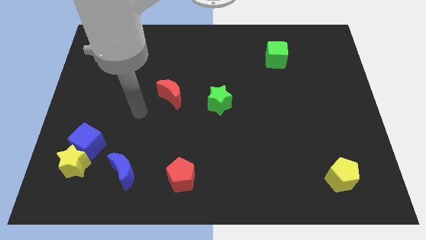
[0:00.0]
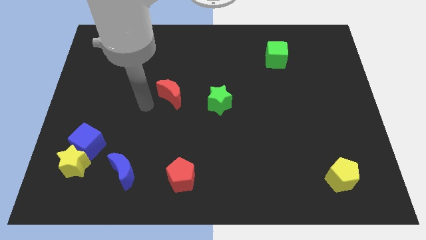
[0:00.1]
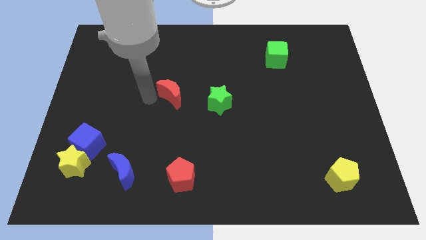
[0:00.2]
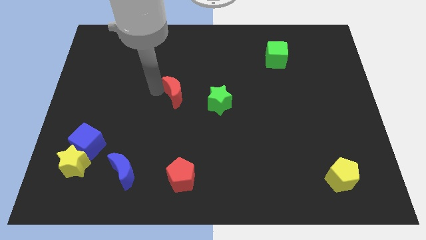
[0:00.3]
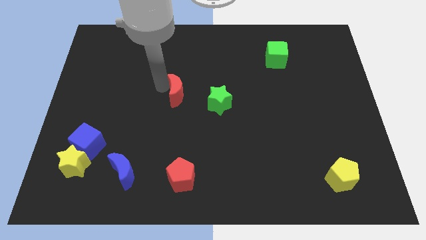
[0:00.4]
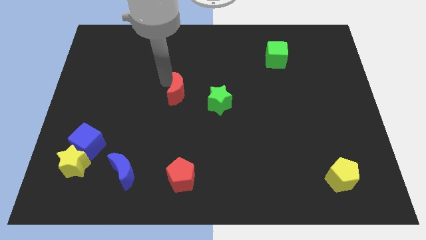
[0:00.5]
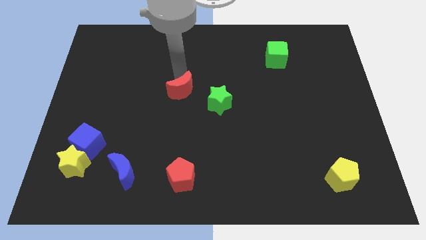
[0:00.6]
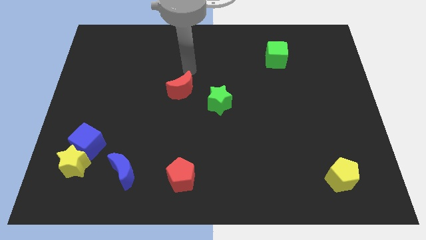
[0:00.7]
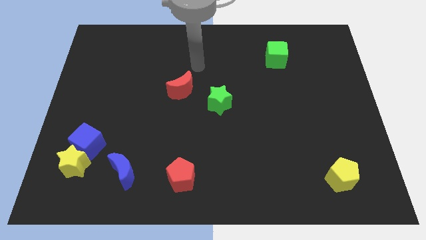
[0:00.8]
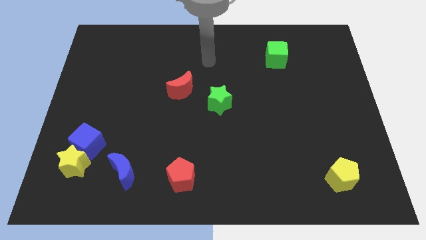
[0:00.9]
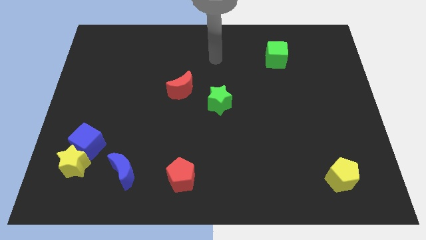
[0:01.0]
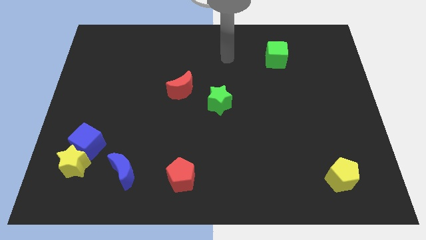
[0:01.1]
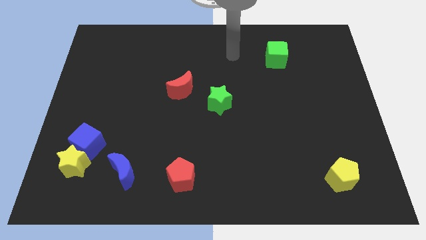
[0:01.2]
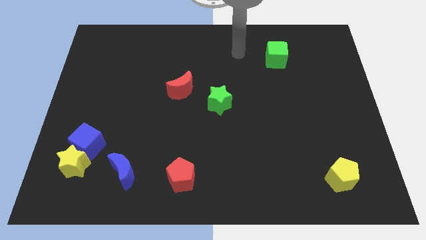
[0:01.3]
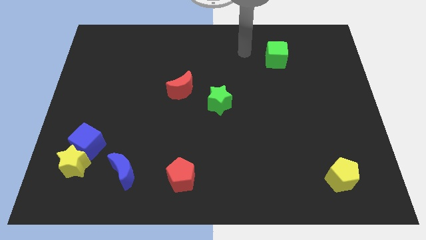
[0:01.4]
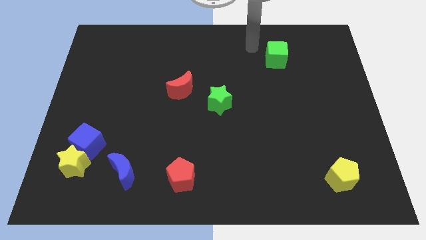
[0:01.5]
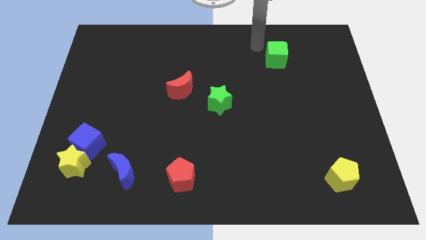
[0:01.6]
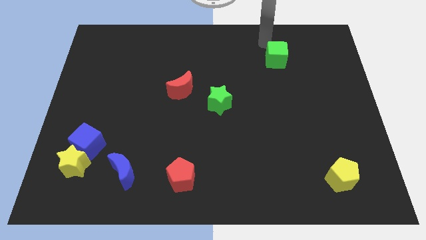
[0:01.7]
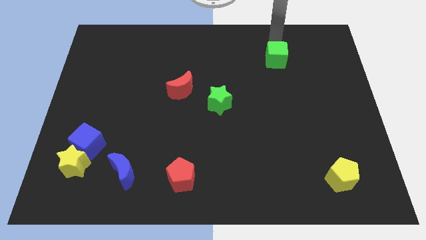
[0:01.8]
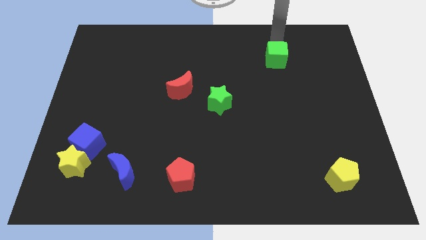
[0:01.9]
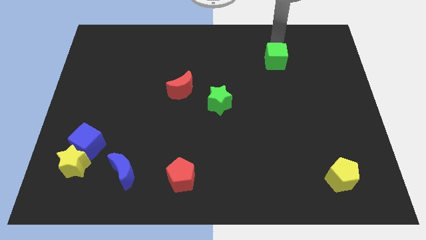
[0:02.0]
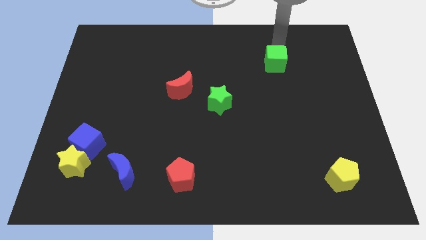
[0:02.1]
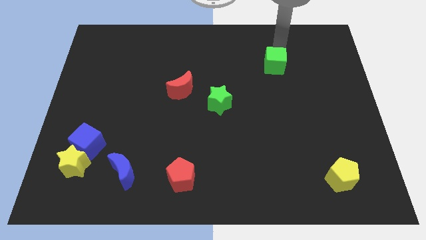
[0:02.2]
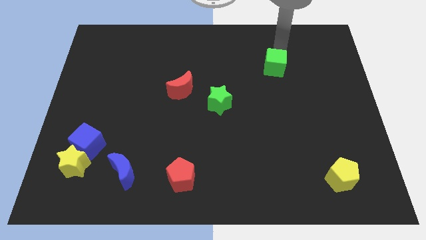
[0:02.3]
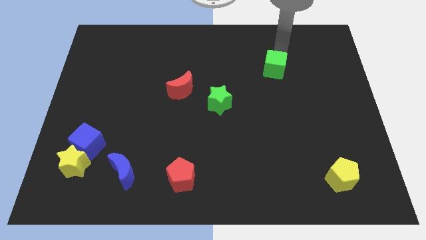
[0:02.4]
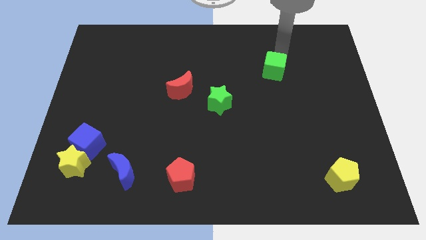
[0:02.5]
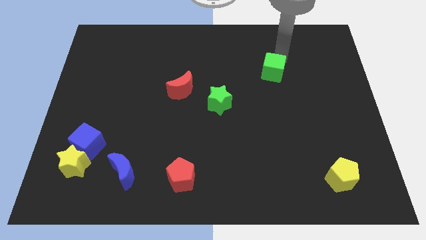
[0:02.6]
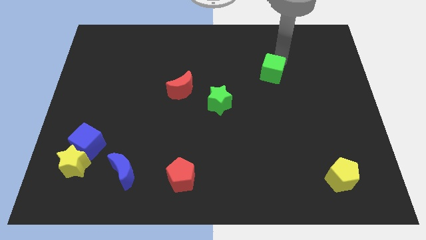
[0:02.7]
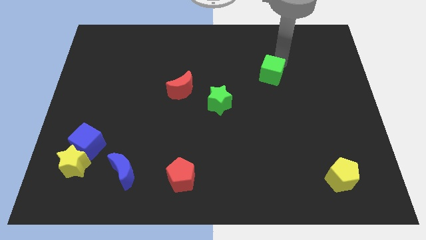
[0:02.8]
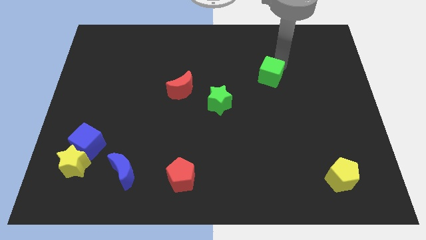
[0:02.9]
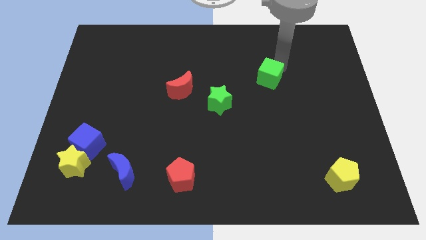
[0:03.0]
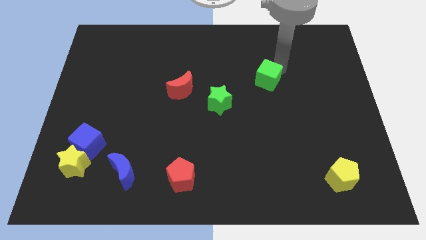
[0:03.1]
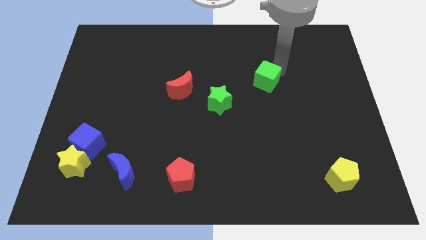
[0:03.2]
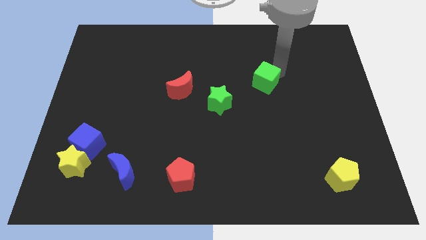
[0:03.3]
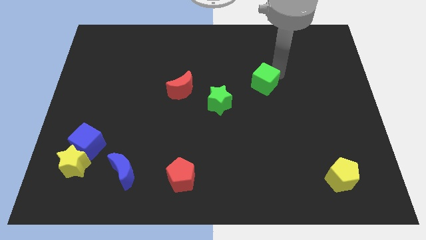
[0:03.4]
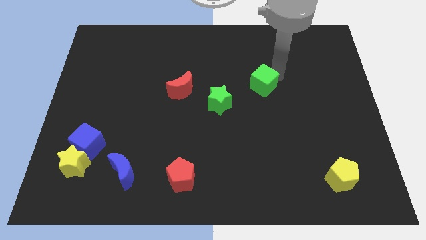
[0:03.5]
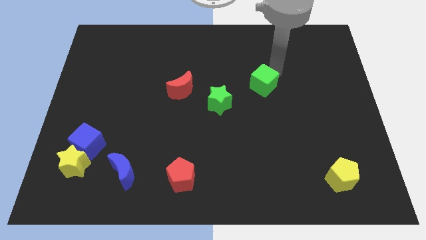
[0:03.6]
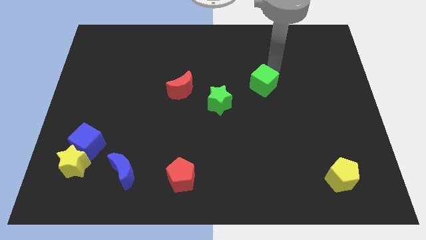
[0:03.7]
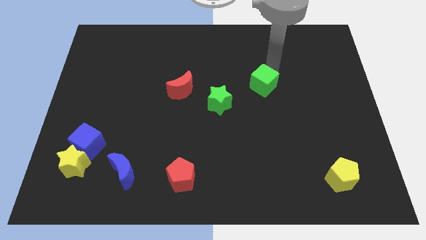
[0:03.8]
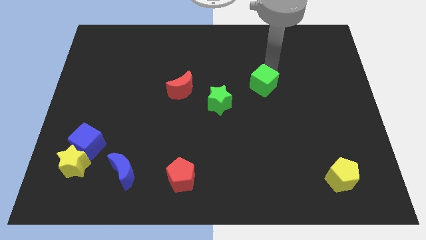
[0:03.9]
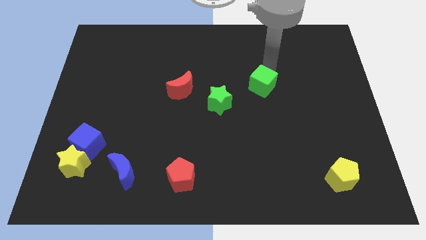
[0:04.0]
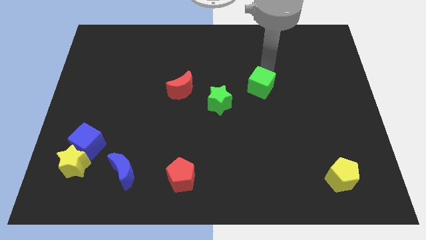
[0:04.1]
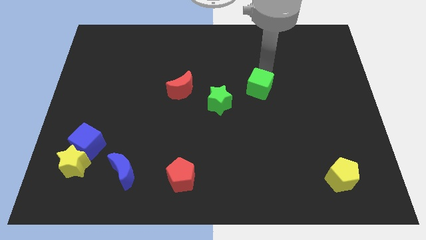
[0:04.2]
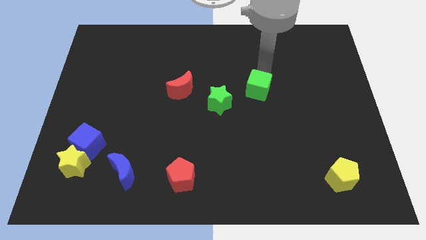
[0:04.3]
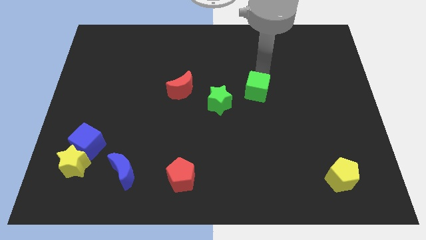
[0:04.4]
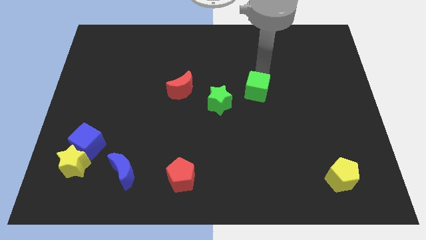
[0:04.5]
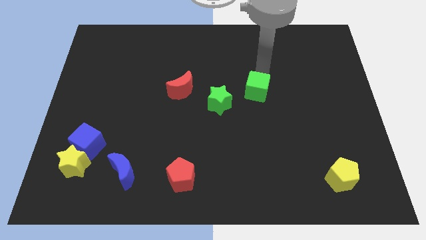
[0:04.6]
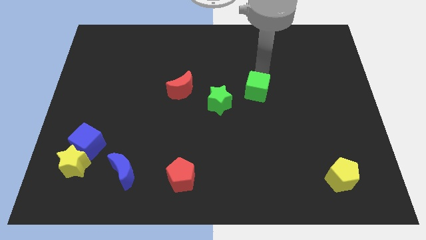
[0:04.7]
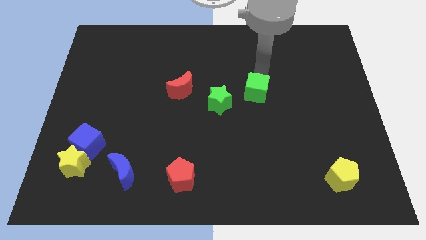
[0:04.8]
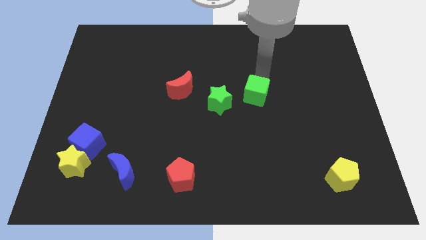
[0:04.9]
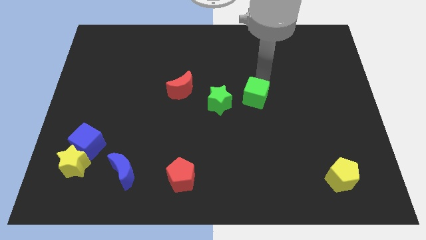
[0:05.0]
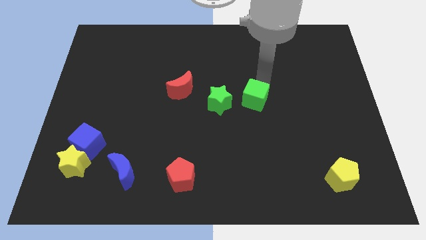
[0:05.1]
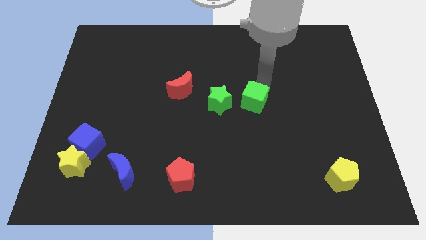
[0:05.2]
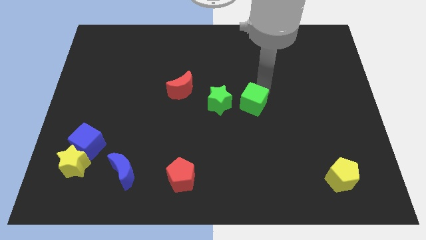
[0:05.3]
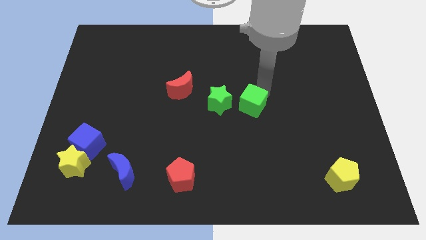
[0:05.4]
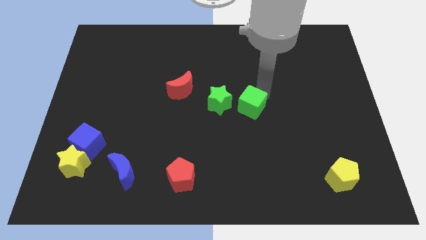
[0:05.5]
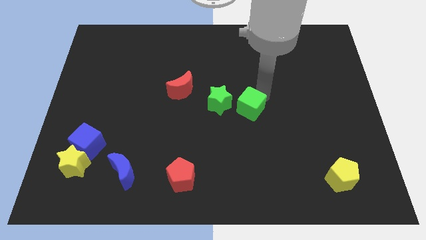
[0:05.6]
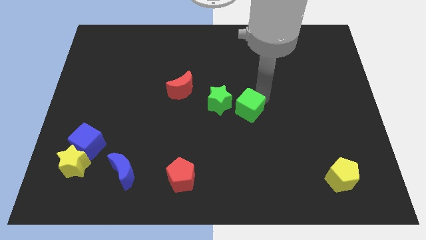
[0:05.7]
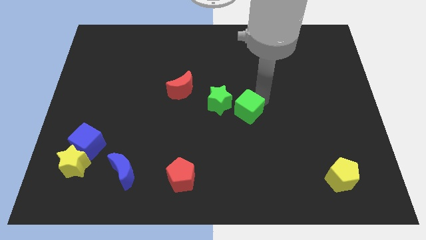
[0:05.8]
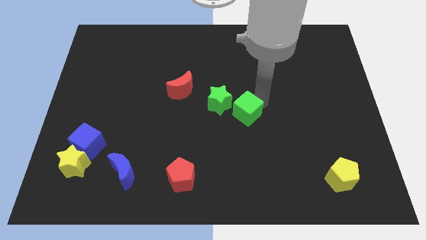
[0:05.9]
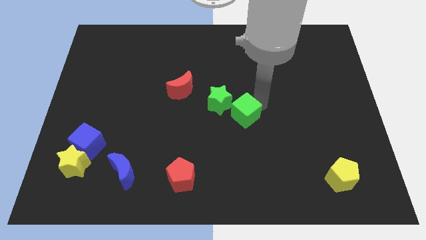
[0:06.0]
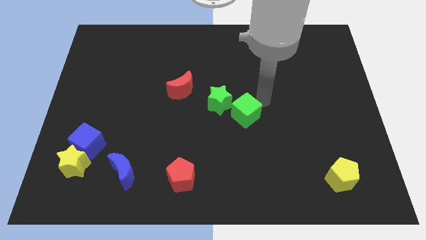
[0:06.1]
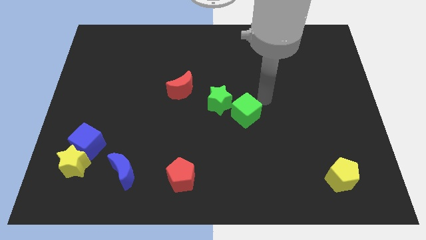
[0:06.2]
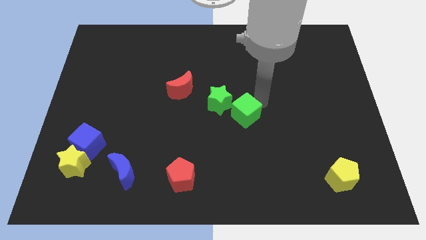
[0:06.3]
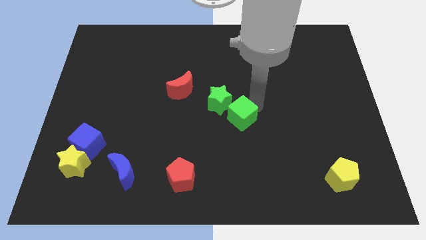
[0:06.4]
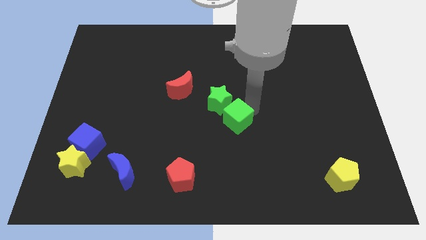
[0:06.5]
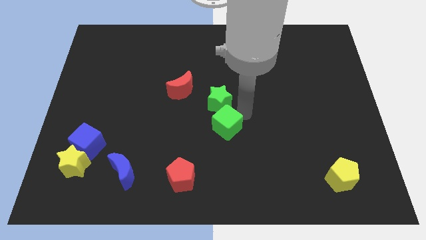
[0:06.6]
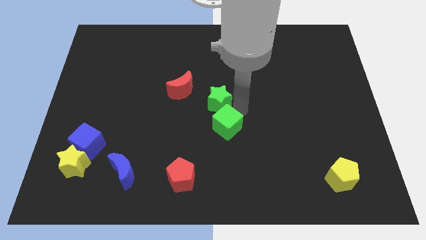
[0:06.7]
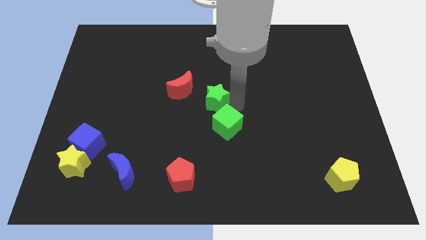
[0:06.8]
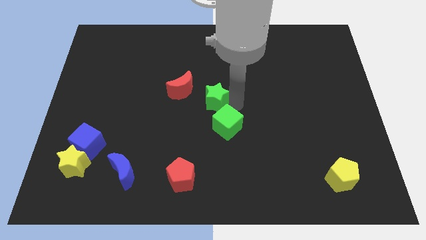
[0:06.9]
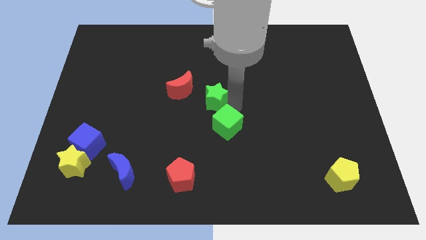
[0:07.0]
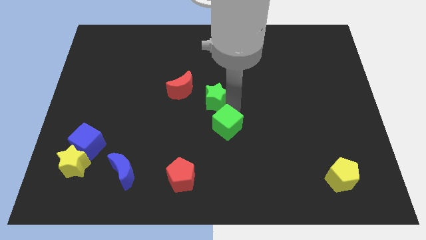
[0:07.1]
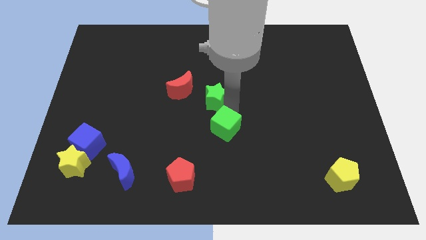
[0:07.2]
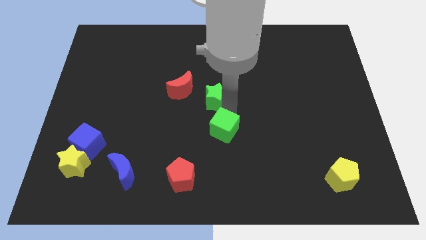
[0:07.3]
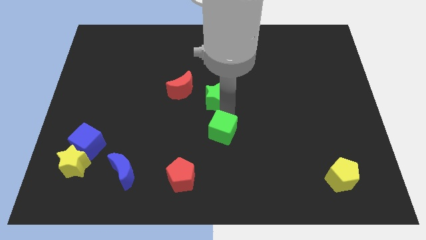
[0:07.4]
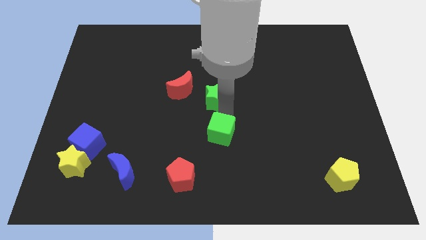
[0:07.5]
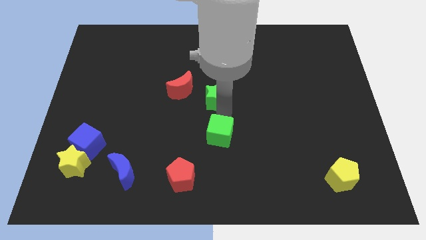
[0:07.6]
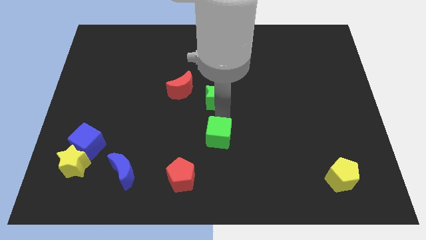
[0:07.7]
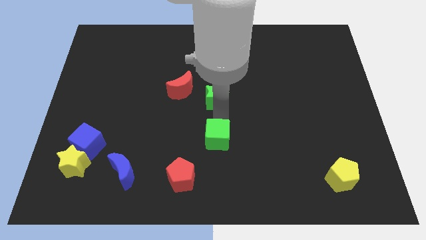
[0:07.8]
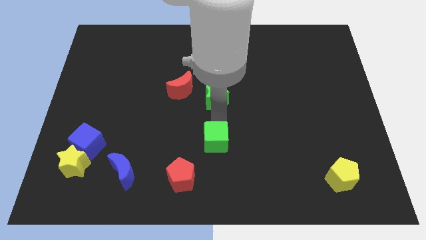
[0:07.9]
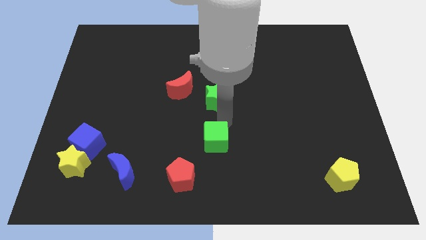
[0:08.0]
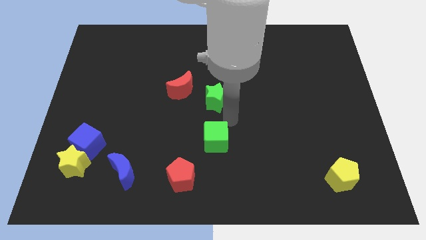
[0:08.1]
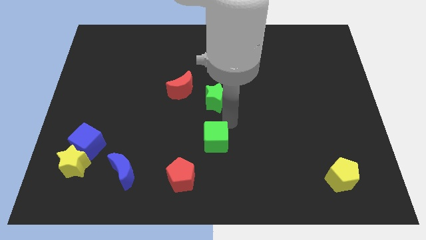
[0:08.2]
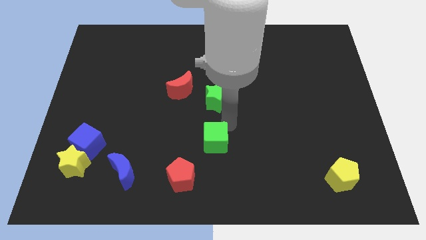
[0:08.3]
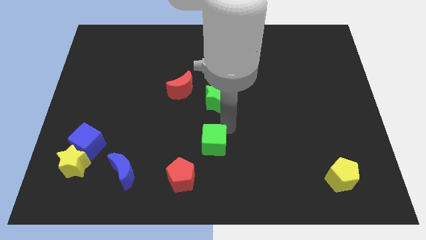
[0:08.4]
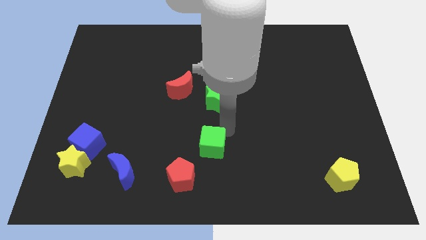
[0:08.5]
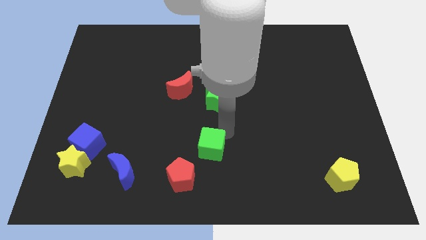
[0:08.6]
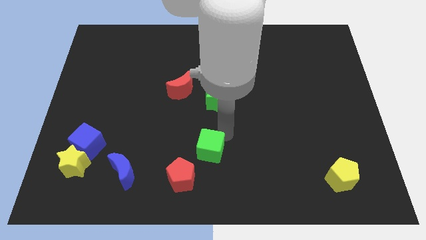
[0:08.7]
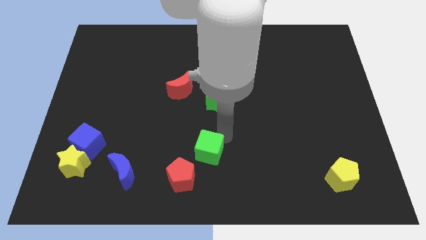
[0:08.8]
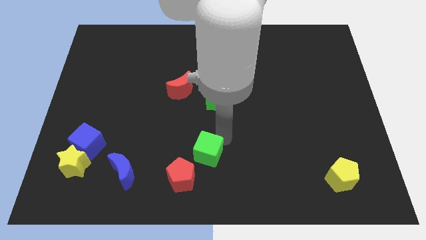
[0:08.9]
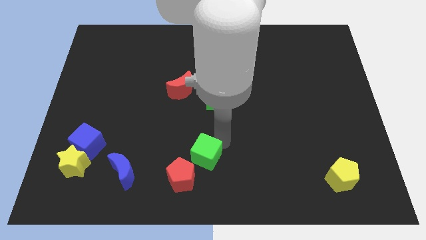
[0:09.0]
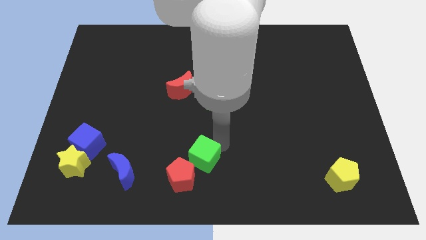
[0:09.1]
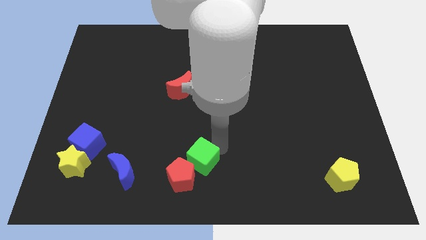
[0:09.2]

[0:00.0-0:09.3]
put the green cube towards the red pentagon
